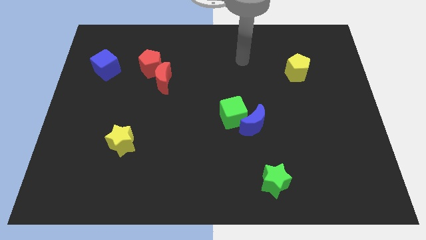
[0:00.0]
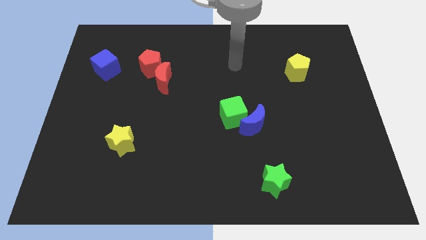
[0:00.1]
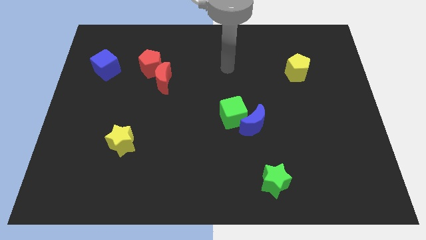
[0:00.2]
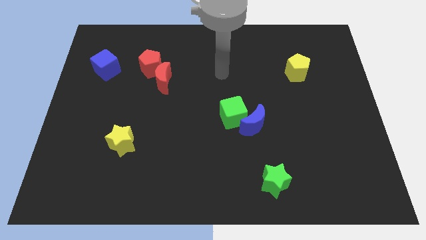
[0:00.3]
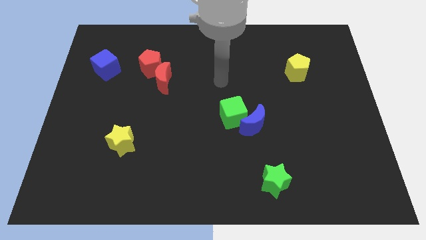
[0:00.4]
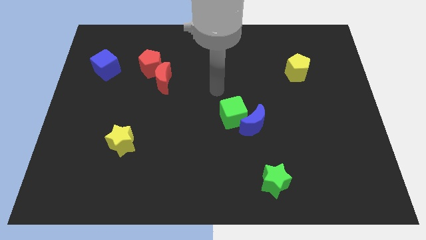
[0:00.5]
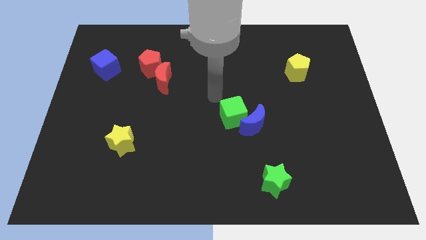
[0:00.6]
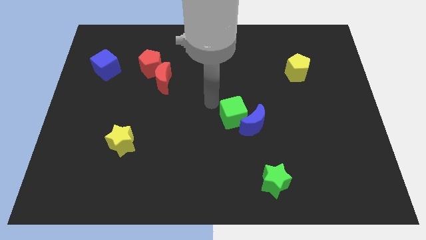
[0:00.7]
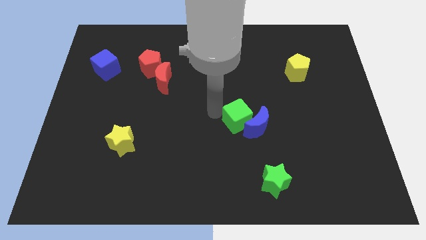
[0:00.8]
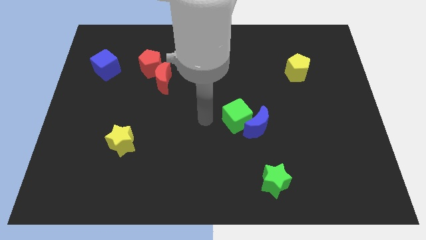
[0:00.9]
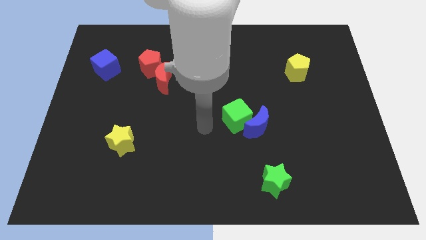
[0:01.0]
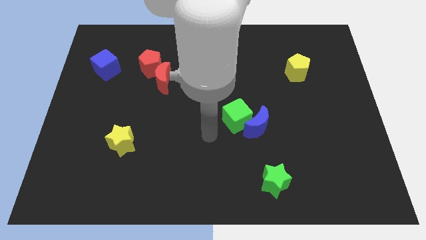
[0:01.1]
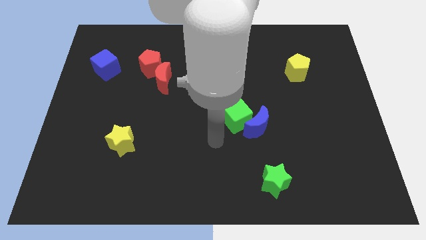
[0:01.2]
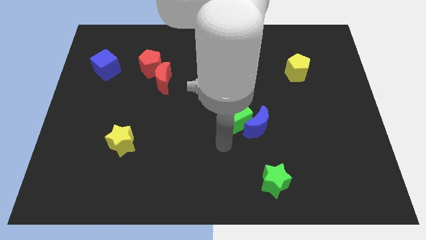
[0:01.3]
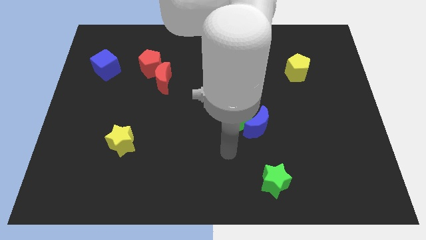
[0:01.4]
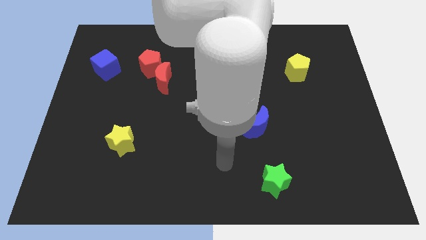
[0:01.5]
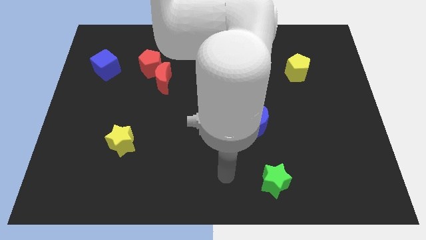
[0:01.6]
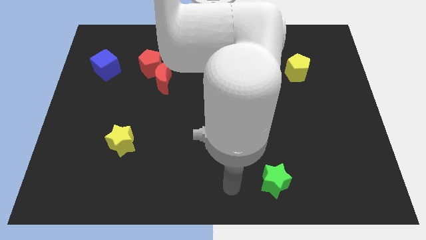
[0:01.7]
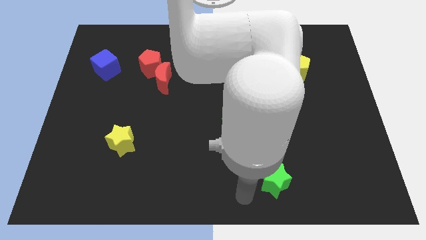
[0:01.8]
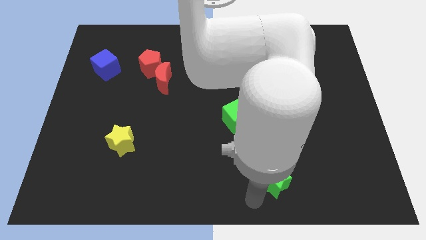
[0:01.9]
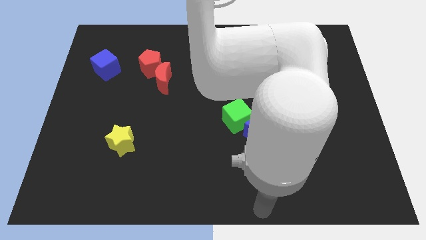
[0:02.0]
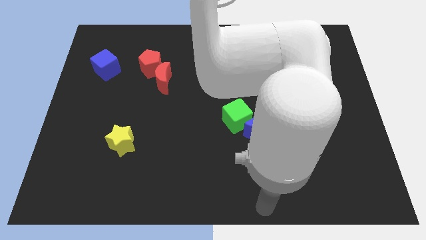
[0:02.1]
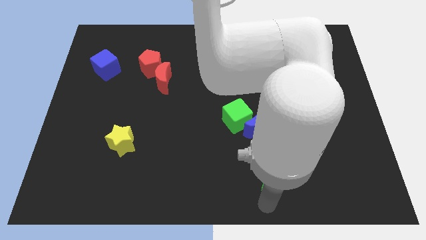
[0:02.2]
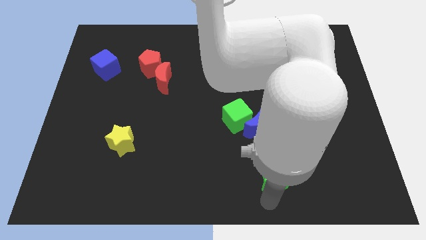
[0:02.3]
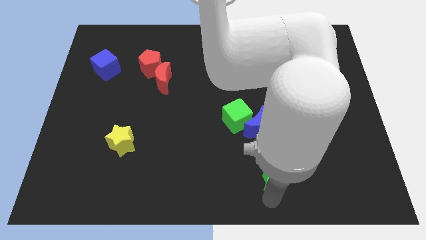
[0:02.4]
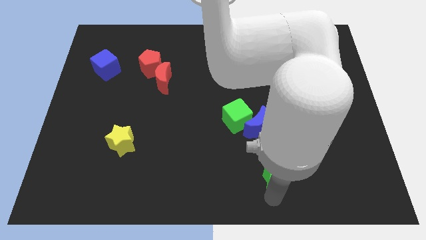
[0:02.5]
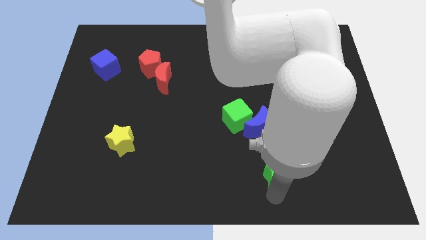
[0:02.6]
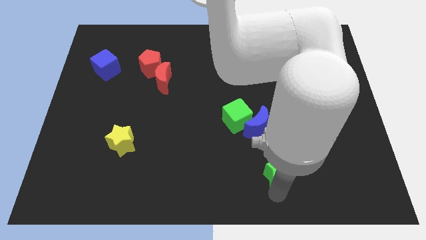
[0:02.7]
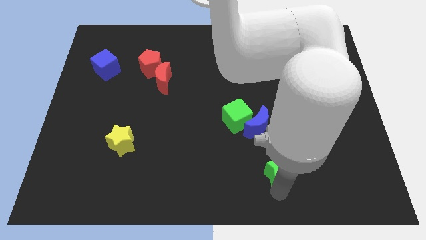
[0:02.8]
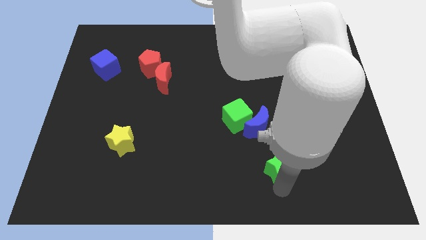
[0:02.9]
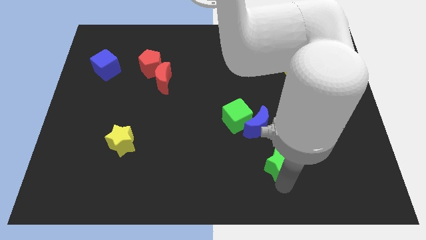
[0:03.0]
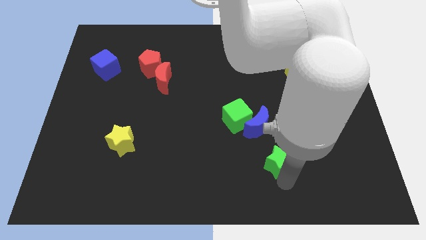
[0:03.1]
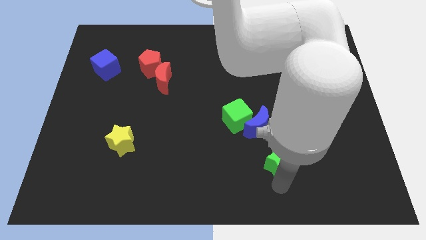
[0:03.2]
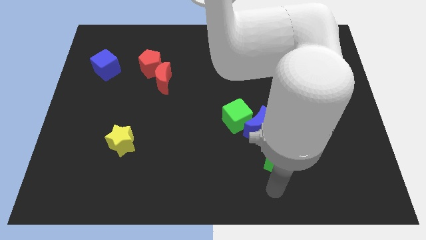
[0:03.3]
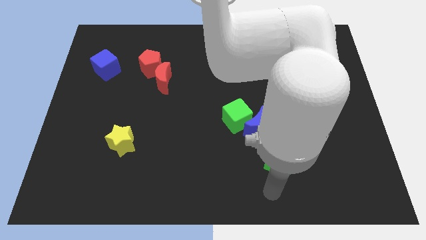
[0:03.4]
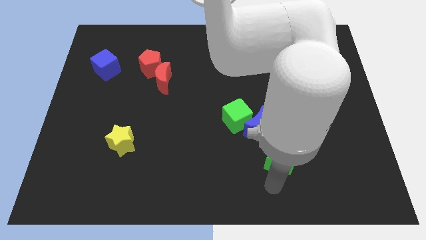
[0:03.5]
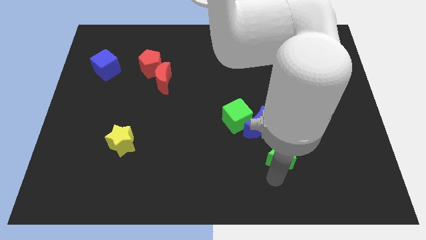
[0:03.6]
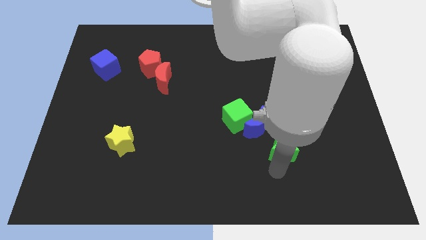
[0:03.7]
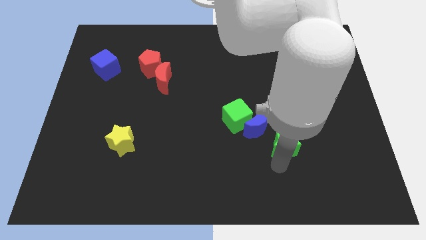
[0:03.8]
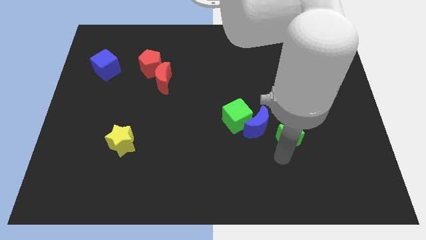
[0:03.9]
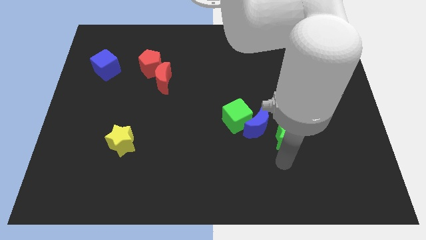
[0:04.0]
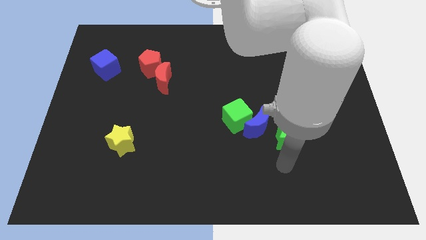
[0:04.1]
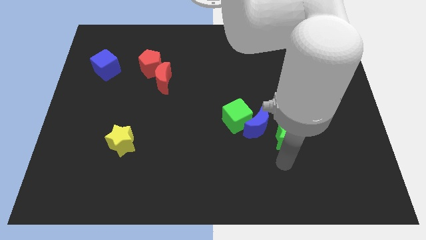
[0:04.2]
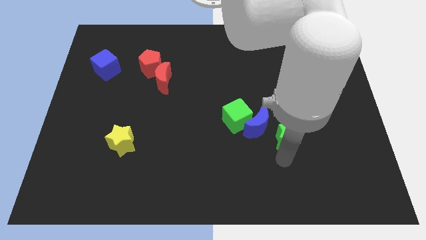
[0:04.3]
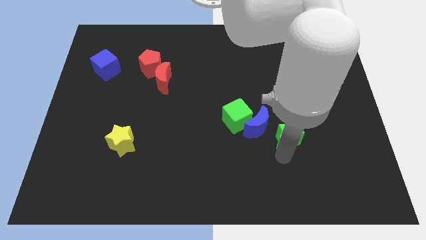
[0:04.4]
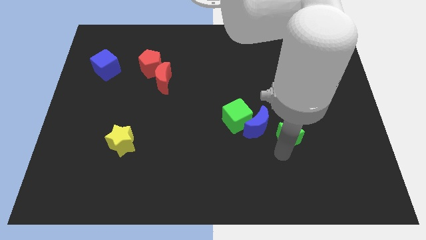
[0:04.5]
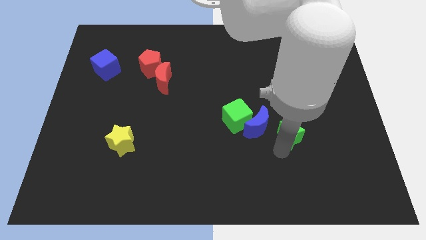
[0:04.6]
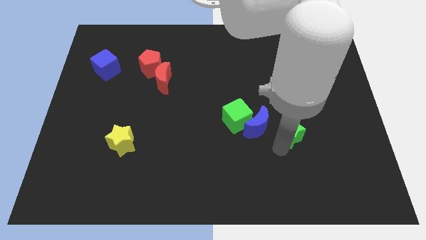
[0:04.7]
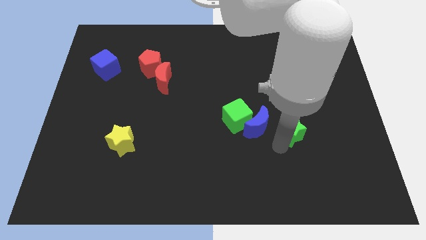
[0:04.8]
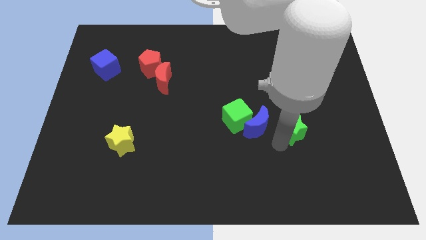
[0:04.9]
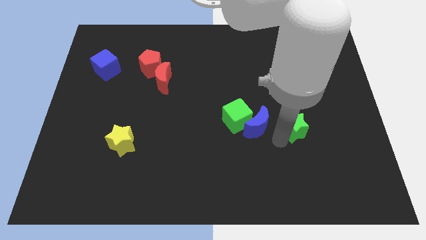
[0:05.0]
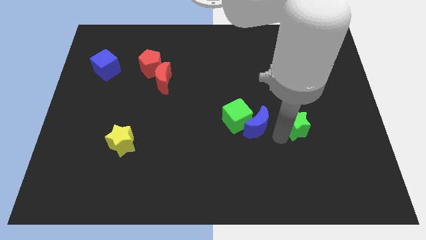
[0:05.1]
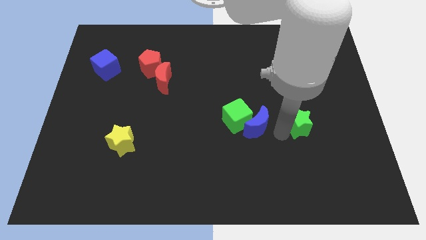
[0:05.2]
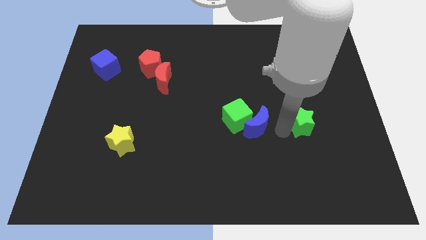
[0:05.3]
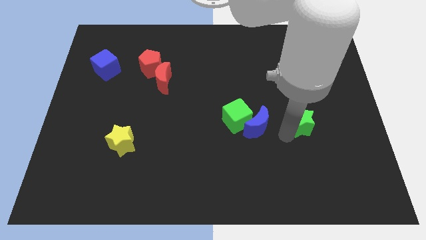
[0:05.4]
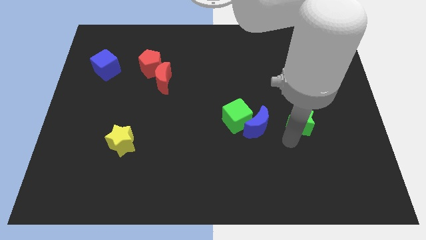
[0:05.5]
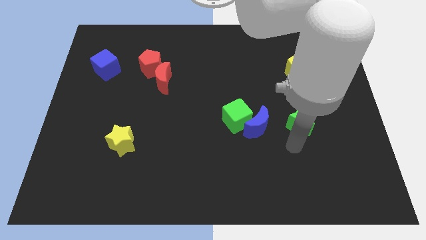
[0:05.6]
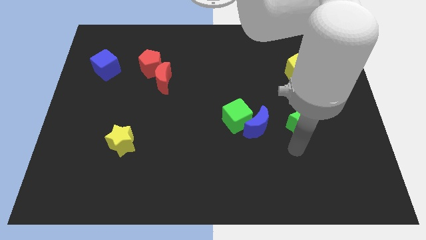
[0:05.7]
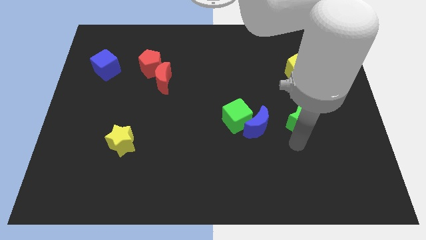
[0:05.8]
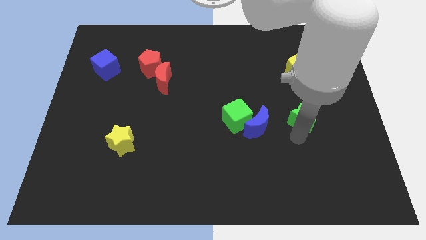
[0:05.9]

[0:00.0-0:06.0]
move the green star below the yellow pentagon

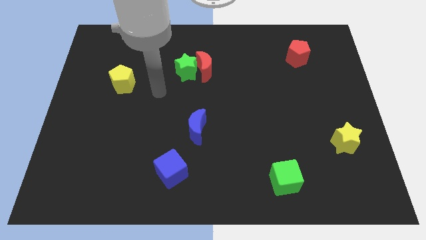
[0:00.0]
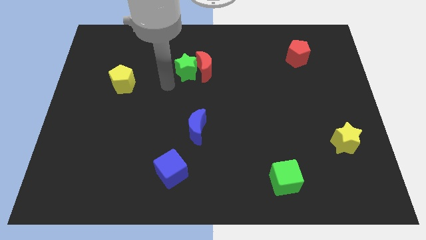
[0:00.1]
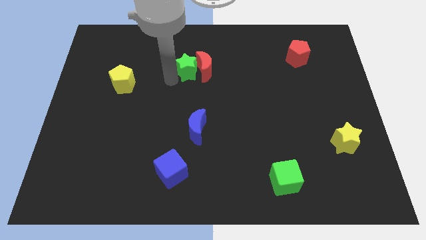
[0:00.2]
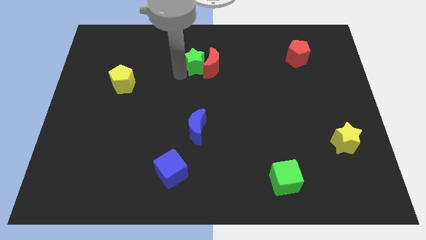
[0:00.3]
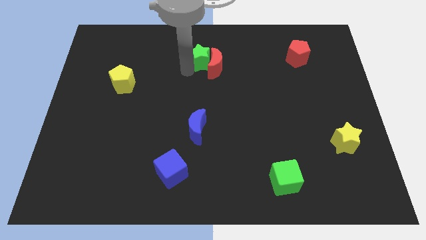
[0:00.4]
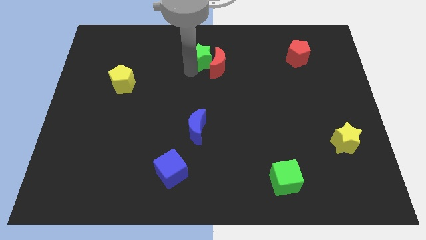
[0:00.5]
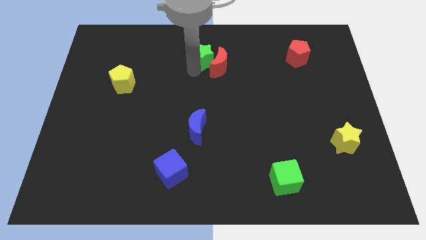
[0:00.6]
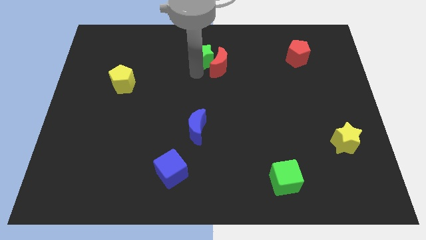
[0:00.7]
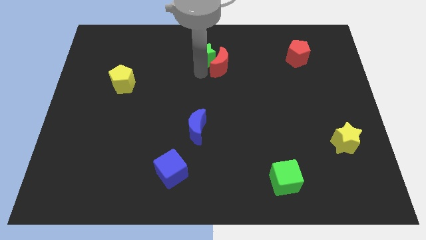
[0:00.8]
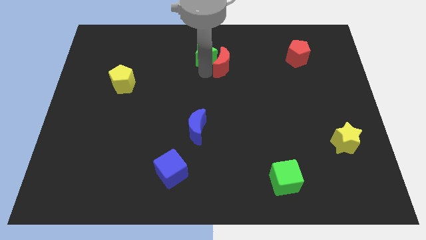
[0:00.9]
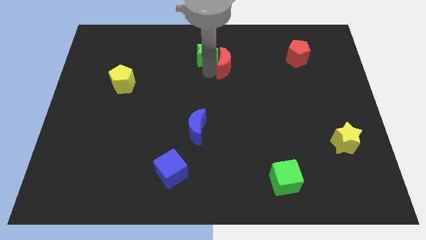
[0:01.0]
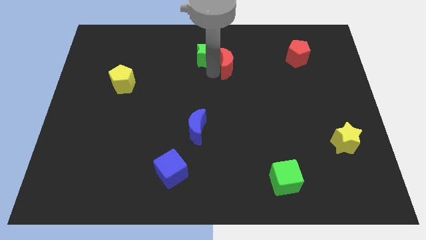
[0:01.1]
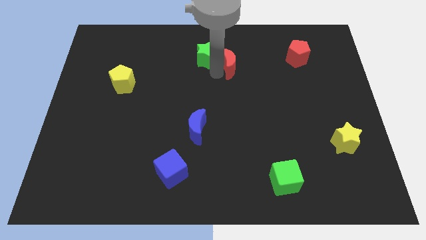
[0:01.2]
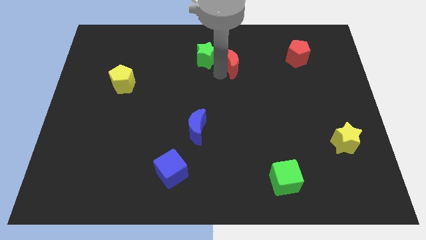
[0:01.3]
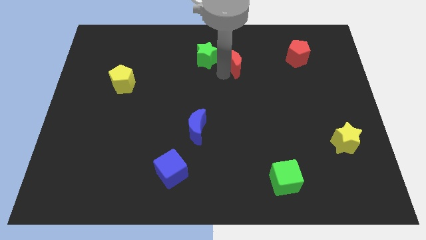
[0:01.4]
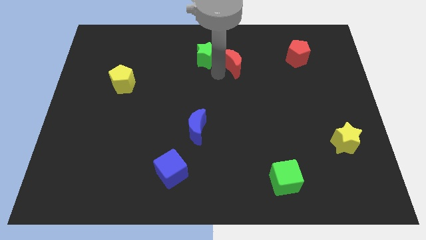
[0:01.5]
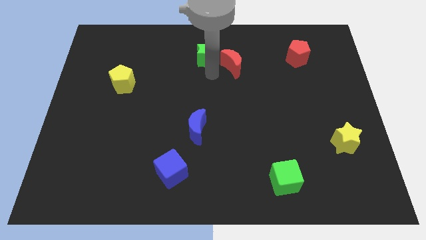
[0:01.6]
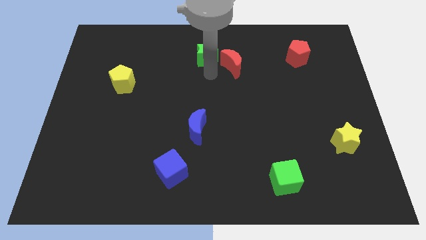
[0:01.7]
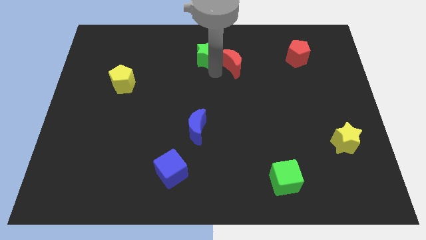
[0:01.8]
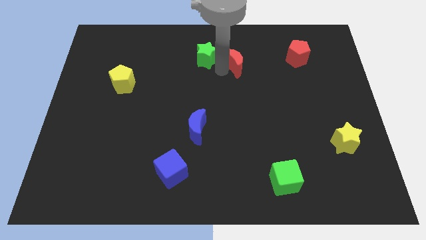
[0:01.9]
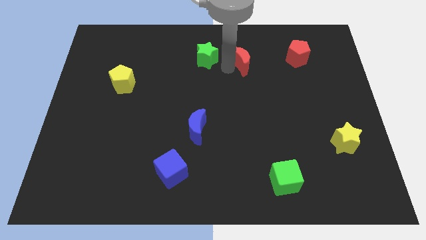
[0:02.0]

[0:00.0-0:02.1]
slide the red moon to the left side of the red pentagon
